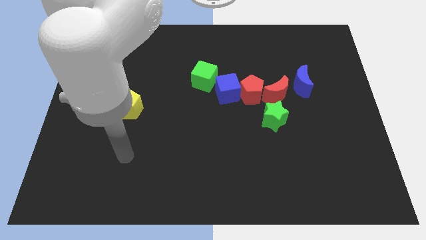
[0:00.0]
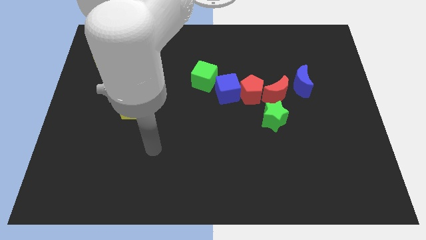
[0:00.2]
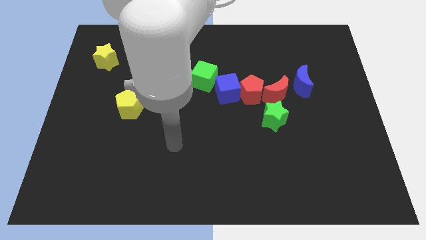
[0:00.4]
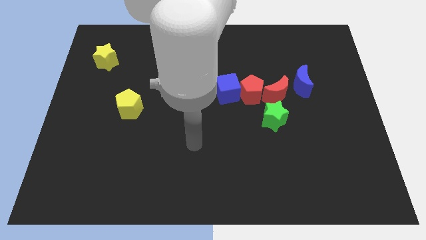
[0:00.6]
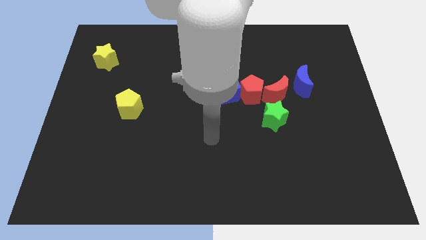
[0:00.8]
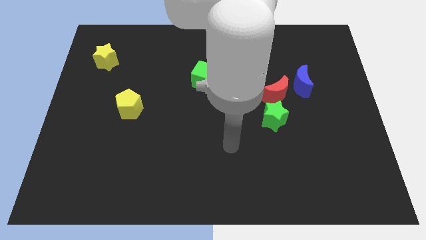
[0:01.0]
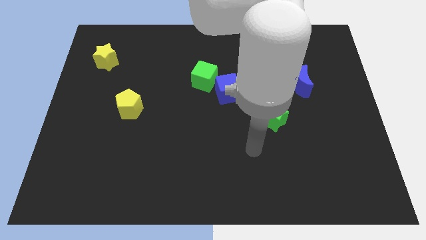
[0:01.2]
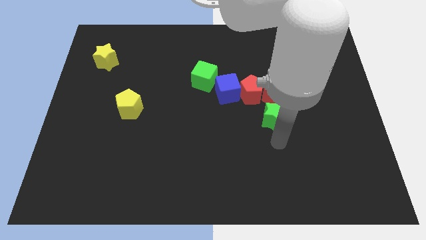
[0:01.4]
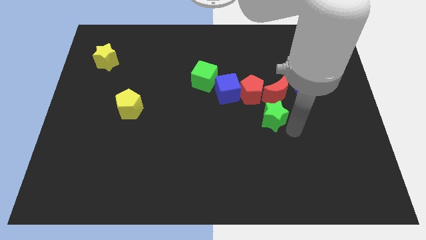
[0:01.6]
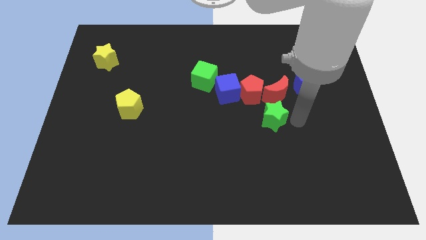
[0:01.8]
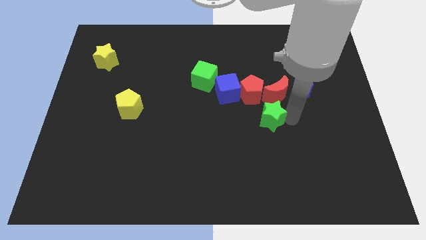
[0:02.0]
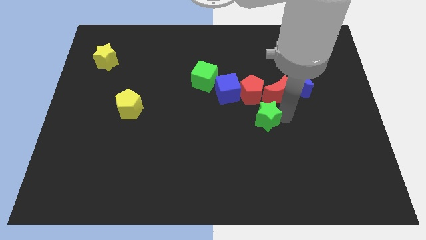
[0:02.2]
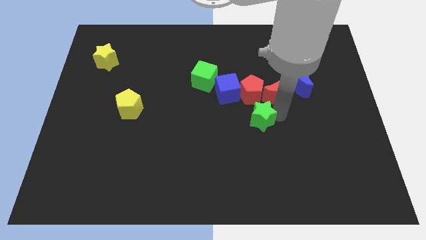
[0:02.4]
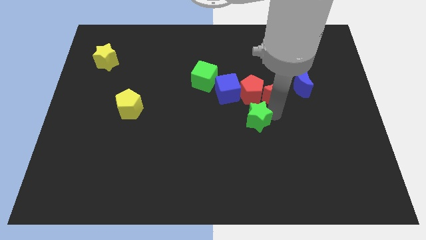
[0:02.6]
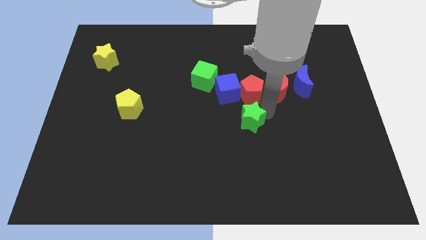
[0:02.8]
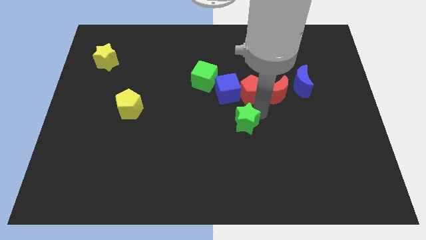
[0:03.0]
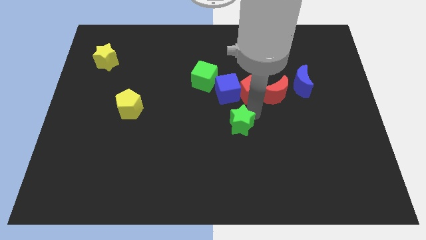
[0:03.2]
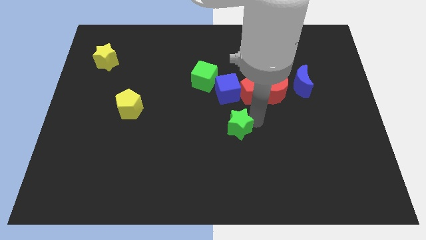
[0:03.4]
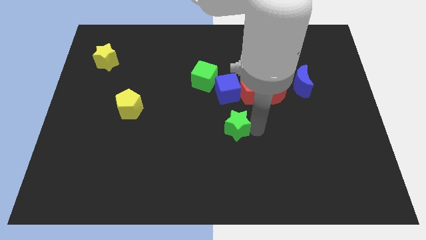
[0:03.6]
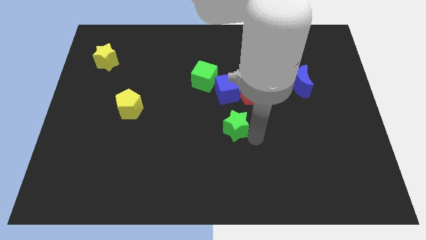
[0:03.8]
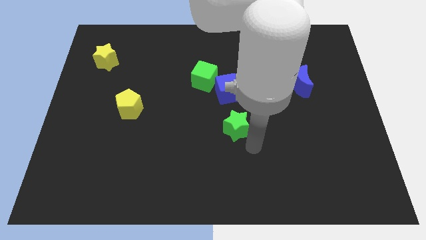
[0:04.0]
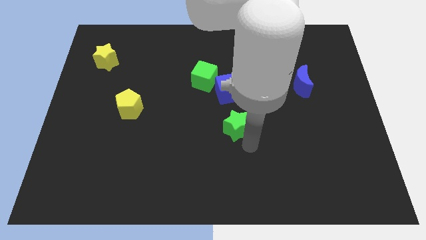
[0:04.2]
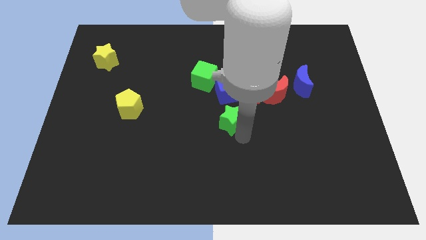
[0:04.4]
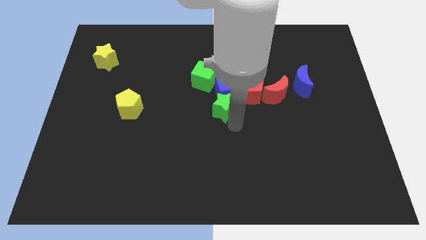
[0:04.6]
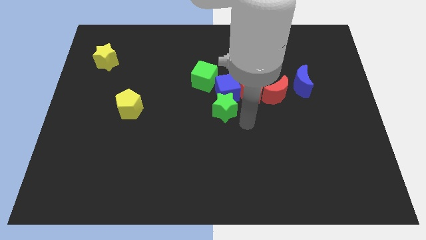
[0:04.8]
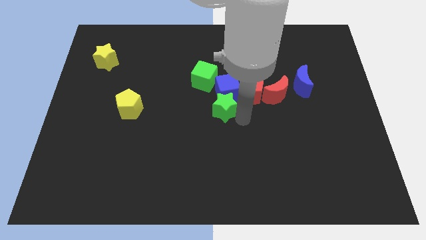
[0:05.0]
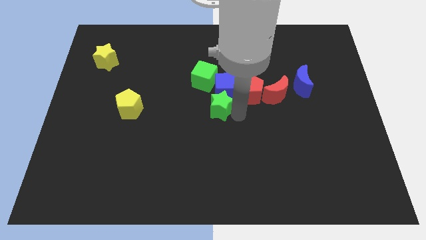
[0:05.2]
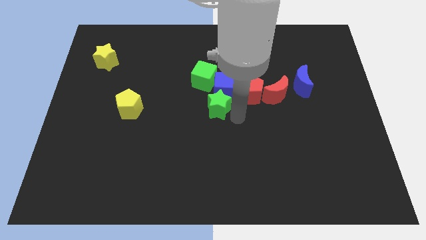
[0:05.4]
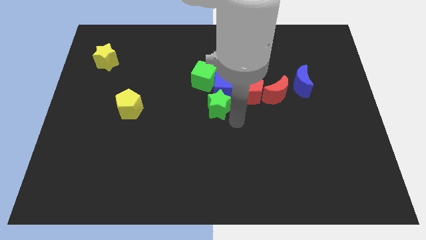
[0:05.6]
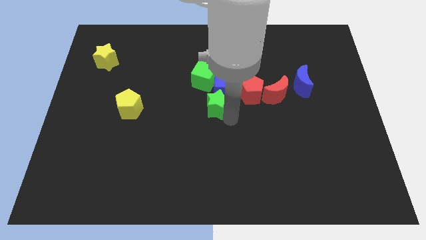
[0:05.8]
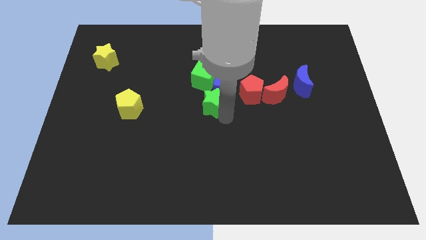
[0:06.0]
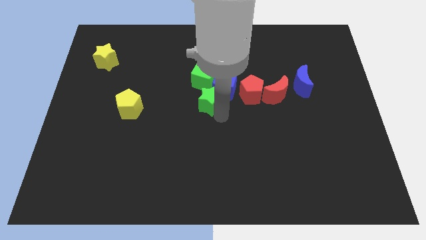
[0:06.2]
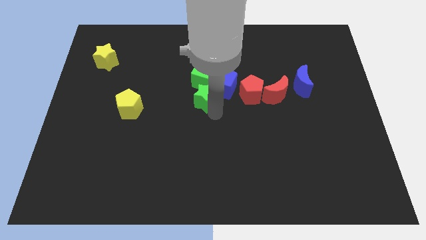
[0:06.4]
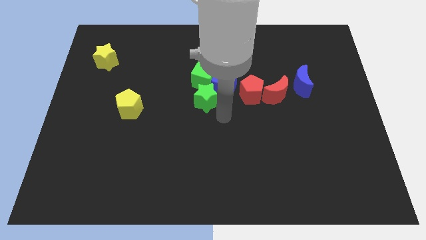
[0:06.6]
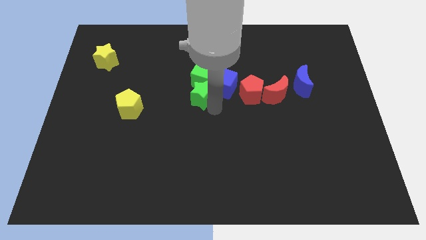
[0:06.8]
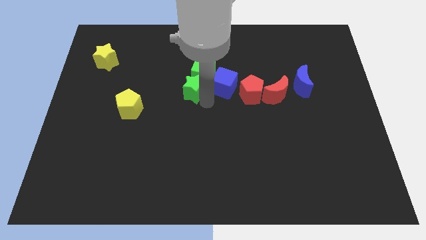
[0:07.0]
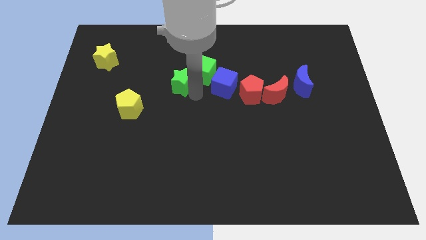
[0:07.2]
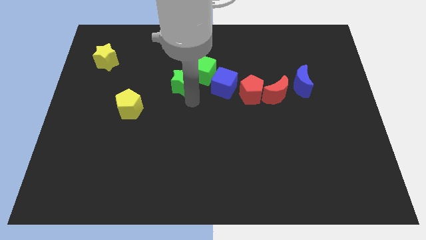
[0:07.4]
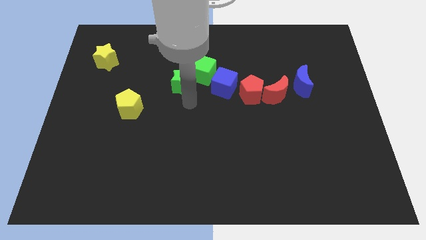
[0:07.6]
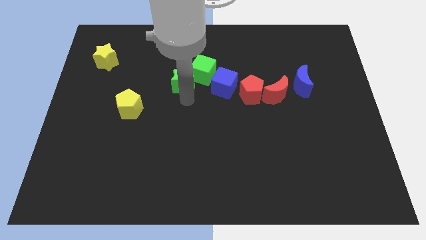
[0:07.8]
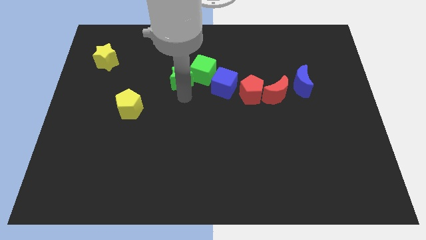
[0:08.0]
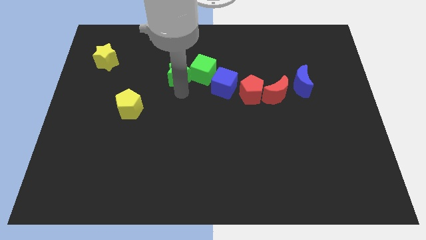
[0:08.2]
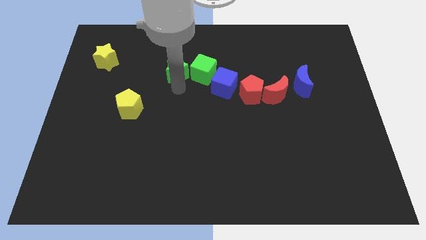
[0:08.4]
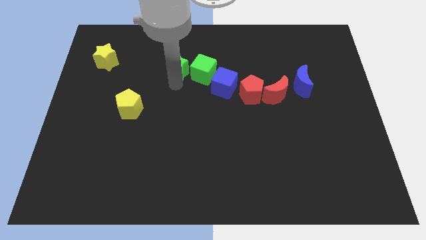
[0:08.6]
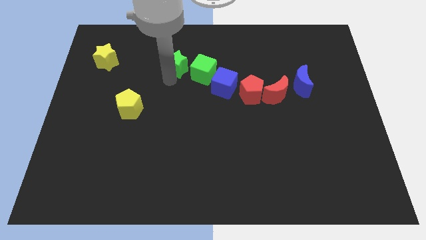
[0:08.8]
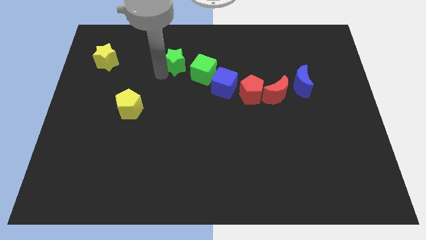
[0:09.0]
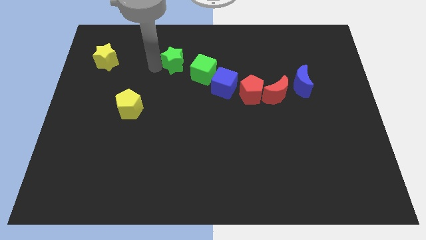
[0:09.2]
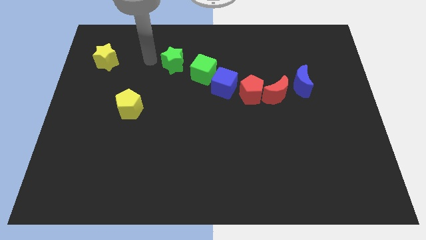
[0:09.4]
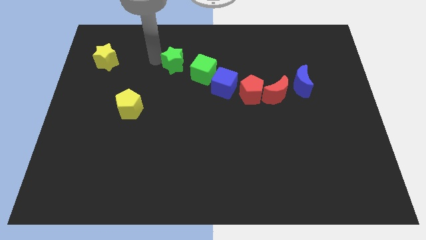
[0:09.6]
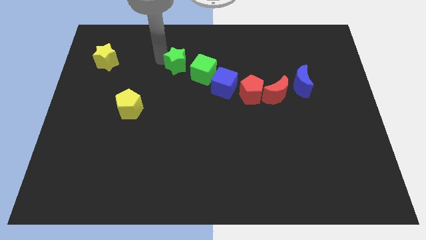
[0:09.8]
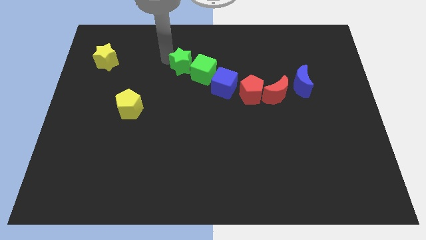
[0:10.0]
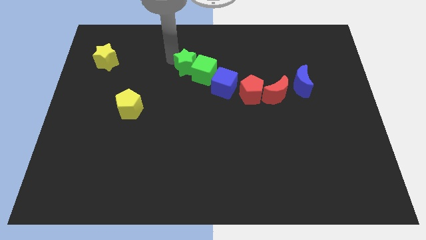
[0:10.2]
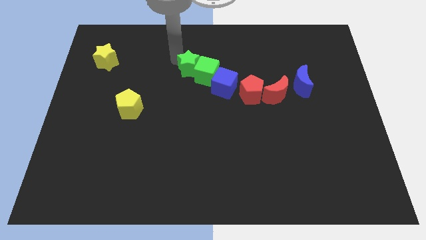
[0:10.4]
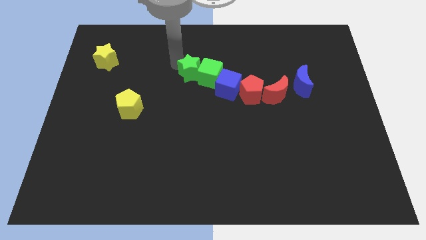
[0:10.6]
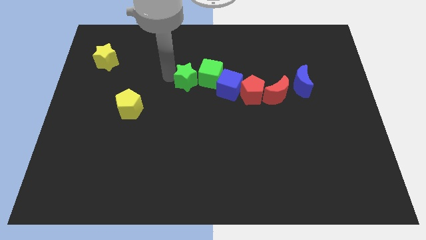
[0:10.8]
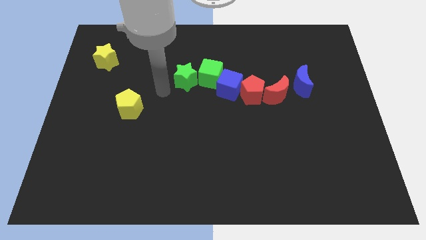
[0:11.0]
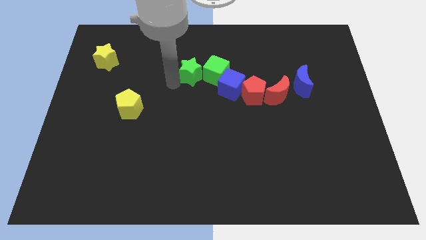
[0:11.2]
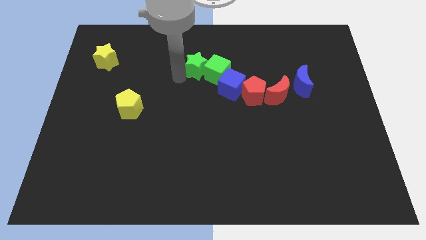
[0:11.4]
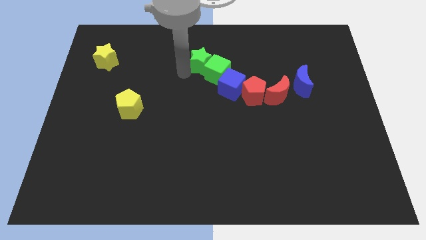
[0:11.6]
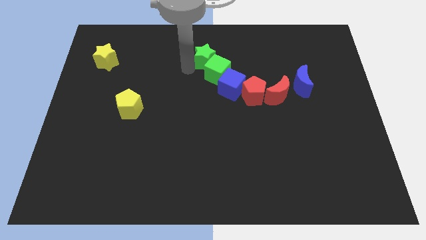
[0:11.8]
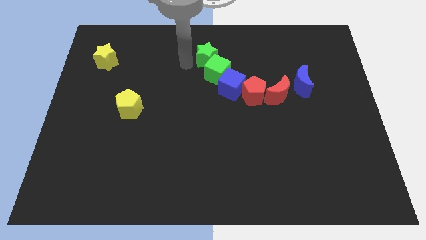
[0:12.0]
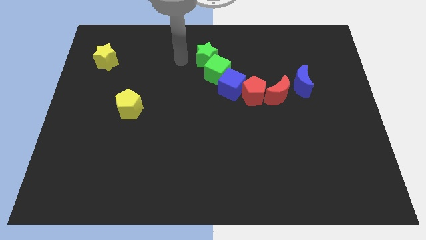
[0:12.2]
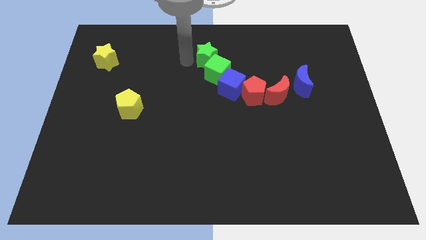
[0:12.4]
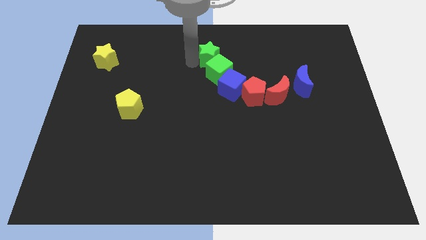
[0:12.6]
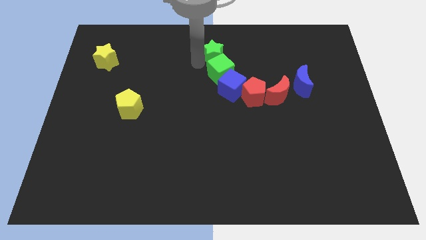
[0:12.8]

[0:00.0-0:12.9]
slide the green star to the top of the blue cube
